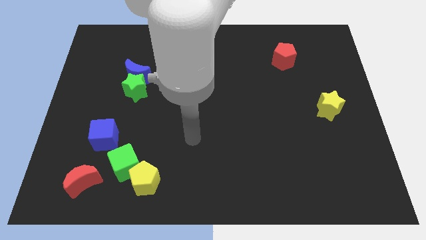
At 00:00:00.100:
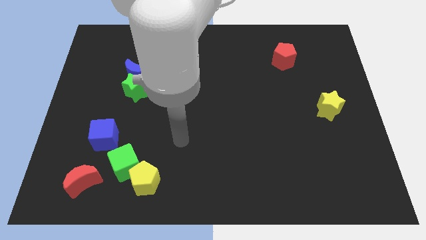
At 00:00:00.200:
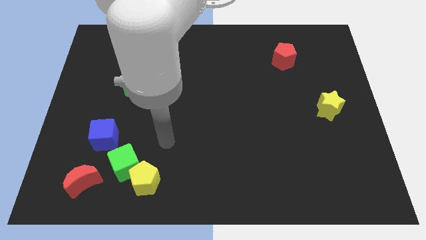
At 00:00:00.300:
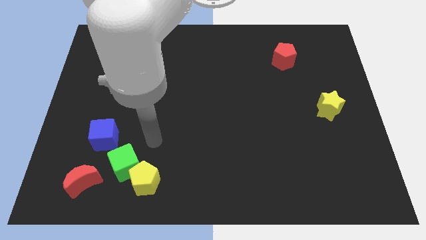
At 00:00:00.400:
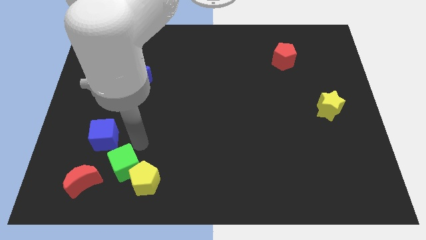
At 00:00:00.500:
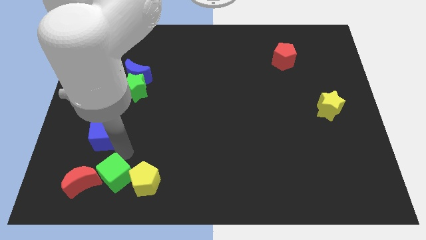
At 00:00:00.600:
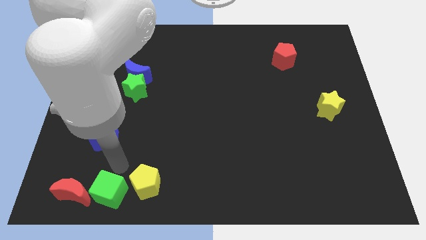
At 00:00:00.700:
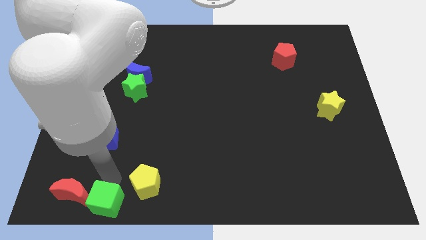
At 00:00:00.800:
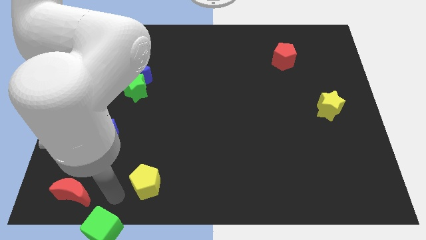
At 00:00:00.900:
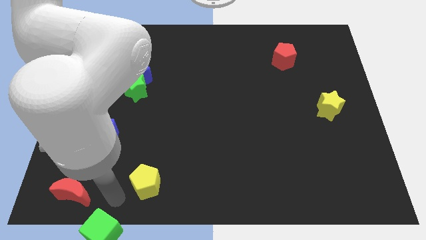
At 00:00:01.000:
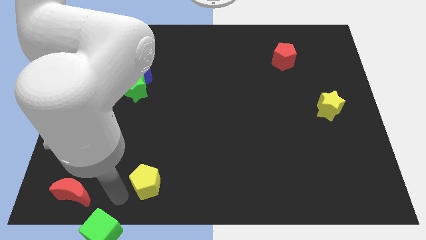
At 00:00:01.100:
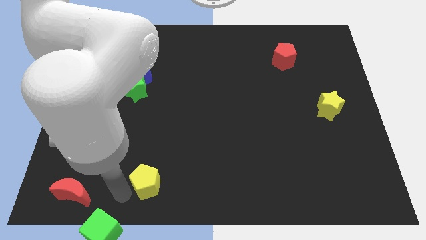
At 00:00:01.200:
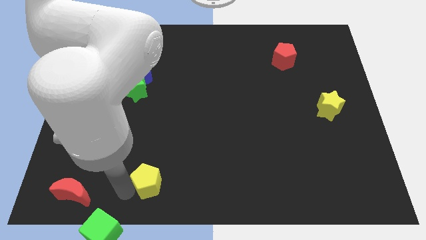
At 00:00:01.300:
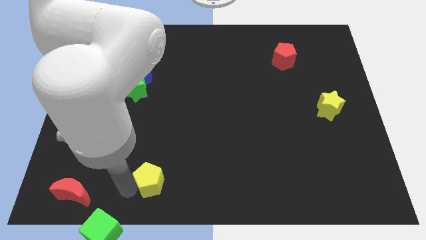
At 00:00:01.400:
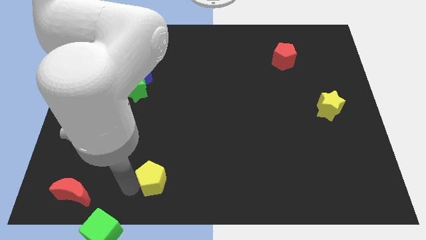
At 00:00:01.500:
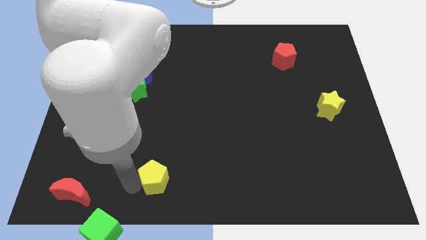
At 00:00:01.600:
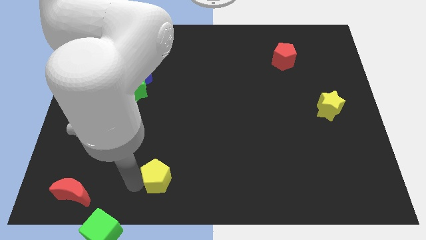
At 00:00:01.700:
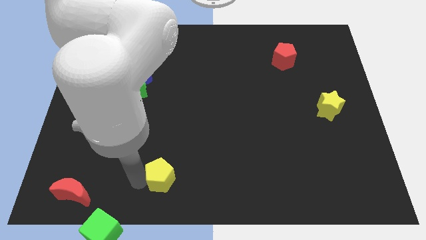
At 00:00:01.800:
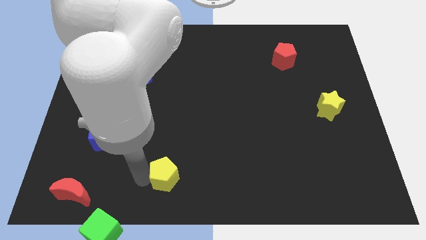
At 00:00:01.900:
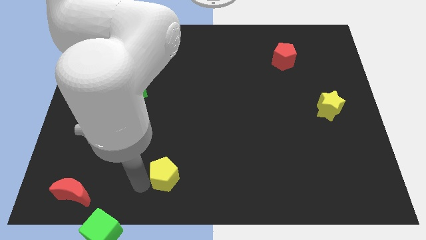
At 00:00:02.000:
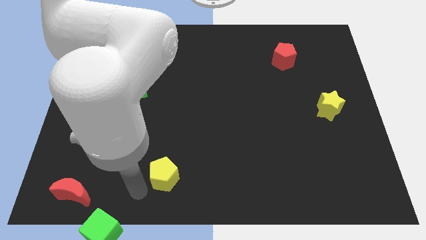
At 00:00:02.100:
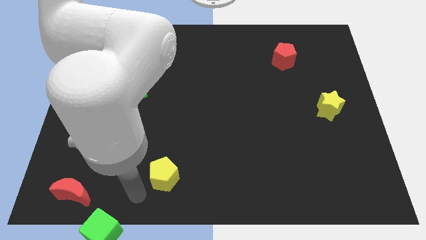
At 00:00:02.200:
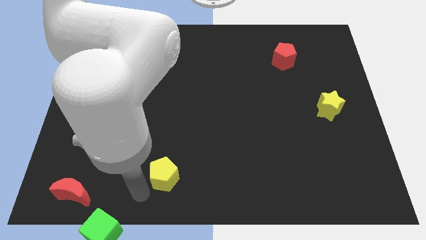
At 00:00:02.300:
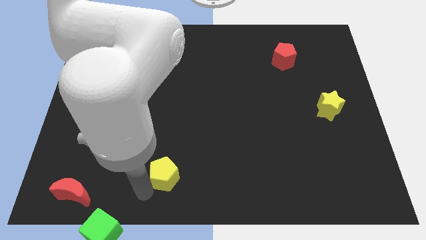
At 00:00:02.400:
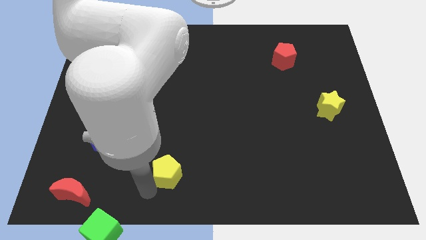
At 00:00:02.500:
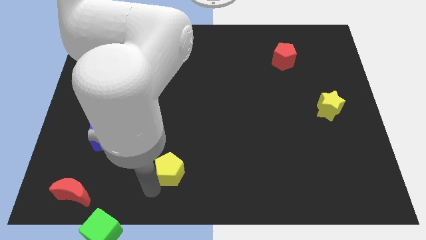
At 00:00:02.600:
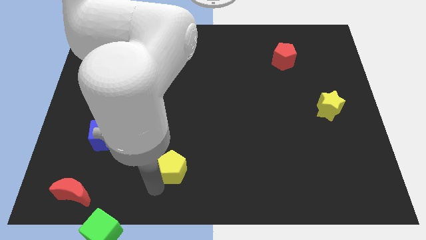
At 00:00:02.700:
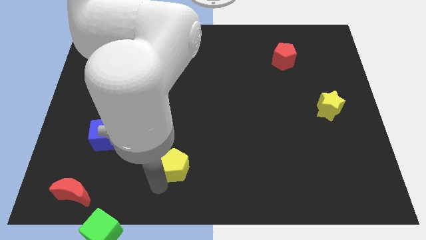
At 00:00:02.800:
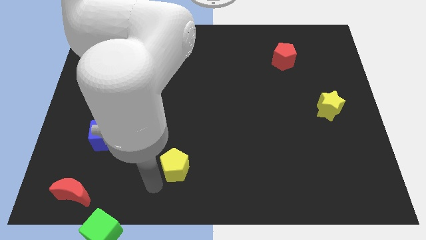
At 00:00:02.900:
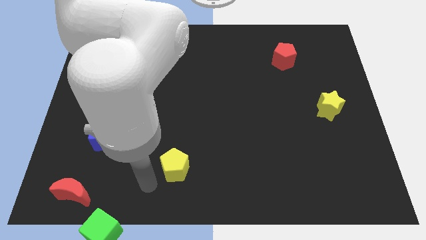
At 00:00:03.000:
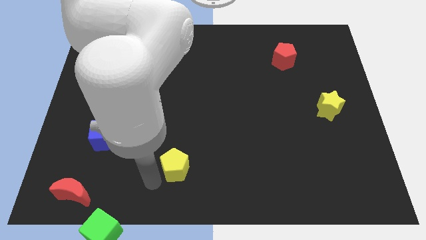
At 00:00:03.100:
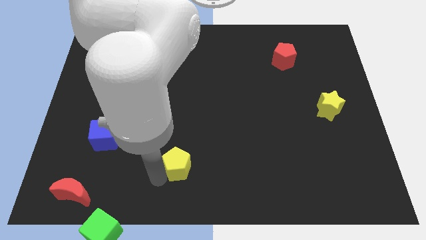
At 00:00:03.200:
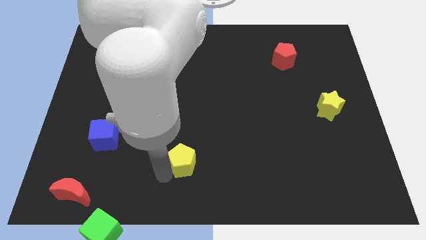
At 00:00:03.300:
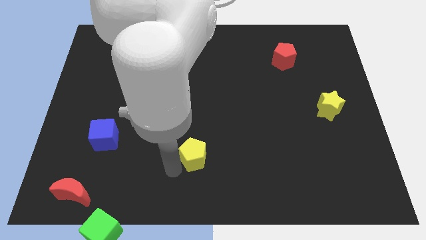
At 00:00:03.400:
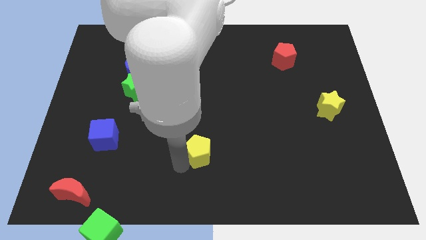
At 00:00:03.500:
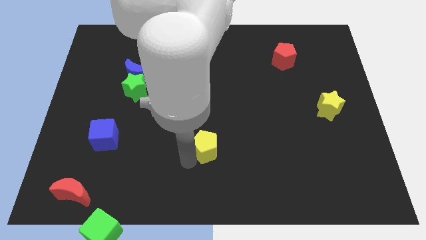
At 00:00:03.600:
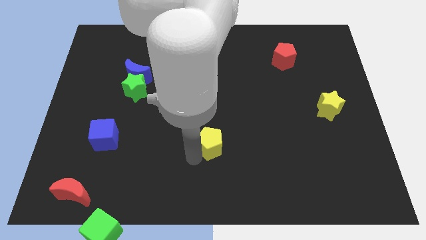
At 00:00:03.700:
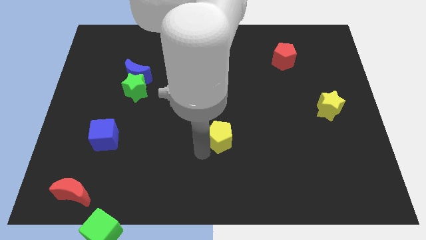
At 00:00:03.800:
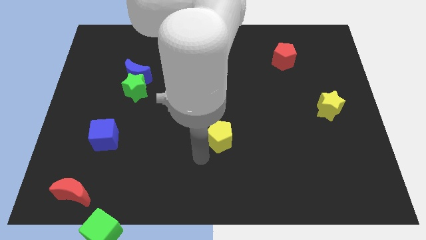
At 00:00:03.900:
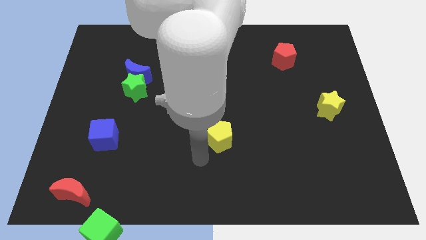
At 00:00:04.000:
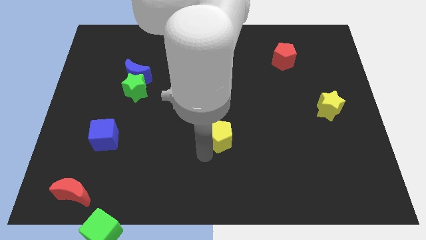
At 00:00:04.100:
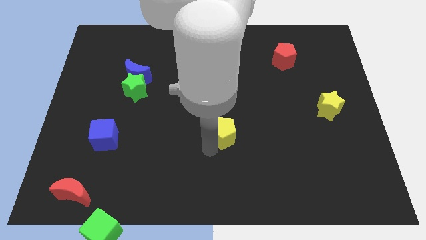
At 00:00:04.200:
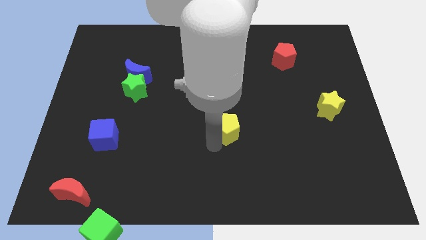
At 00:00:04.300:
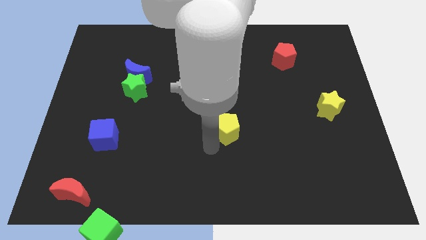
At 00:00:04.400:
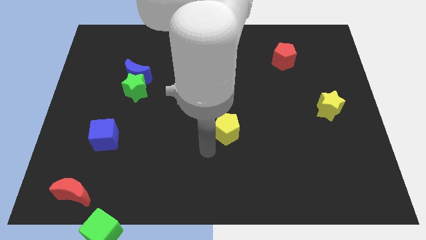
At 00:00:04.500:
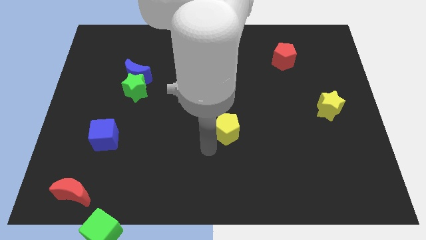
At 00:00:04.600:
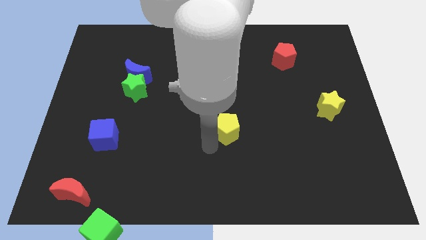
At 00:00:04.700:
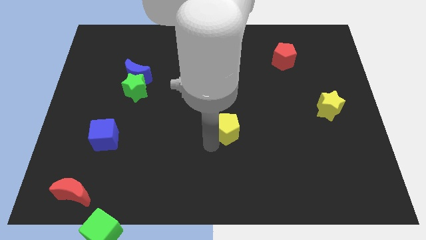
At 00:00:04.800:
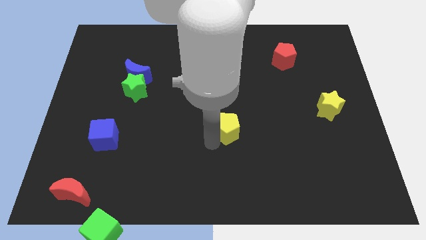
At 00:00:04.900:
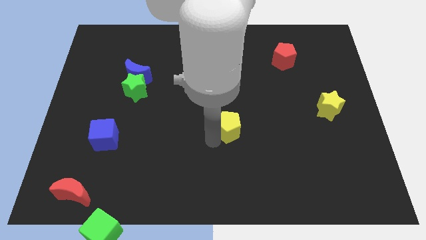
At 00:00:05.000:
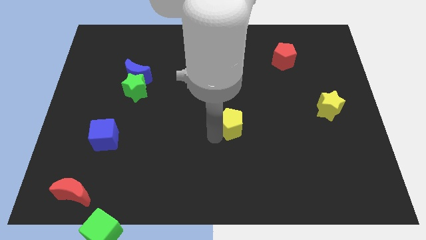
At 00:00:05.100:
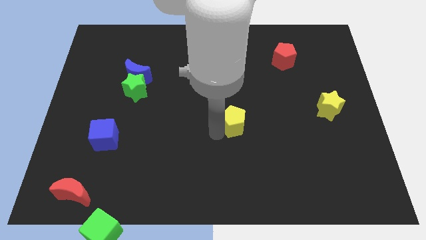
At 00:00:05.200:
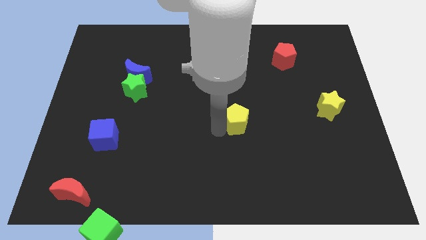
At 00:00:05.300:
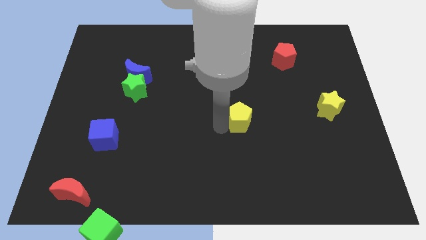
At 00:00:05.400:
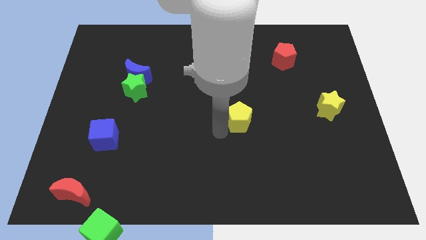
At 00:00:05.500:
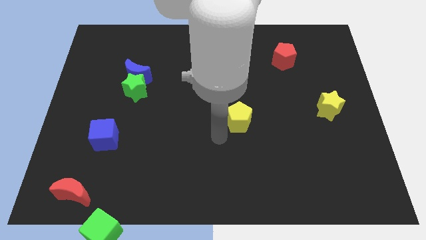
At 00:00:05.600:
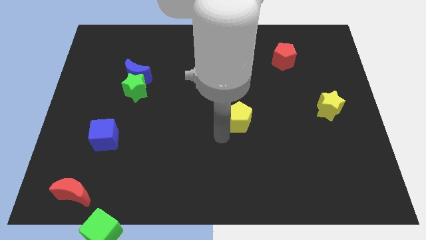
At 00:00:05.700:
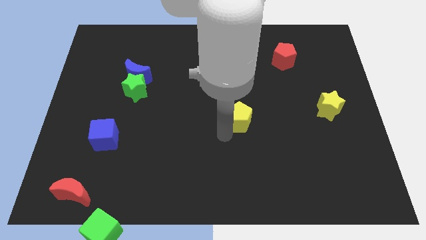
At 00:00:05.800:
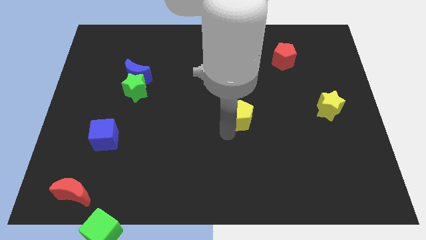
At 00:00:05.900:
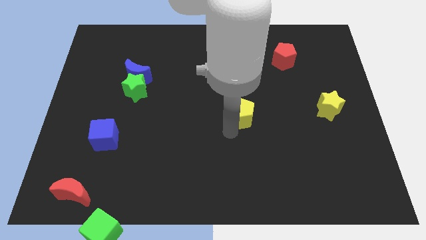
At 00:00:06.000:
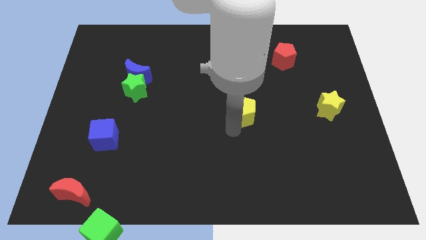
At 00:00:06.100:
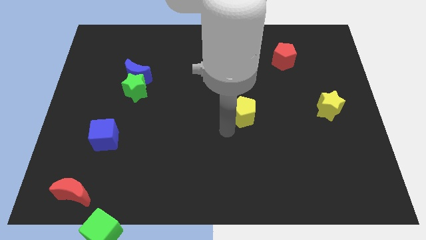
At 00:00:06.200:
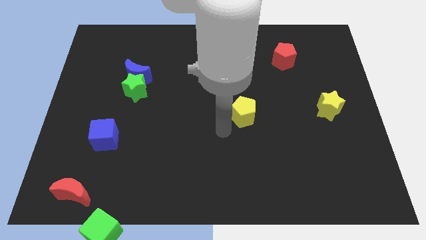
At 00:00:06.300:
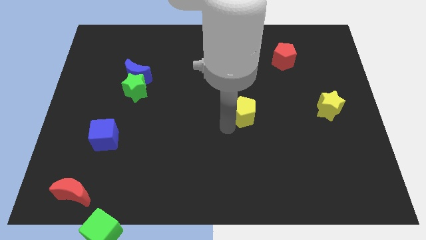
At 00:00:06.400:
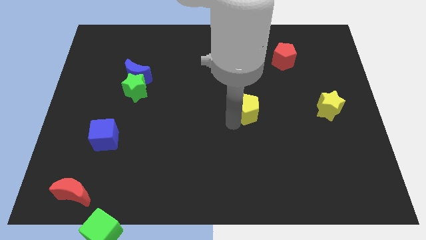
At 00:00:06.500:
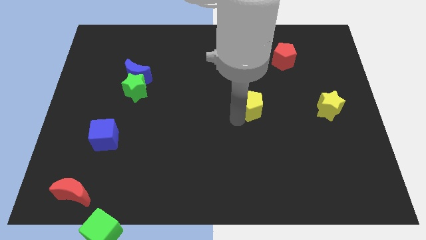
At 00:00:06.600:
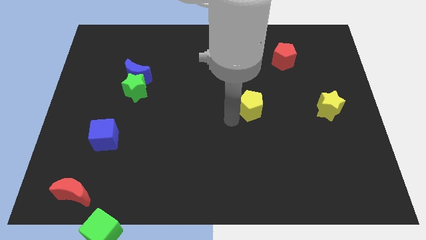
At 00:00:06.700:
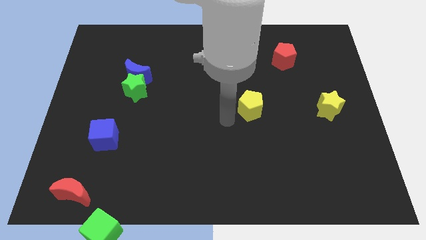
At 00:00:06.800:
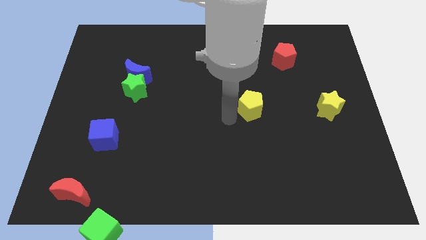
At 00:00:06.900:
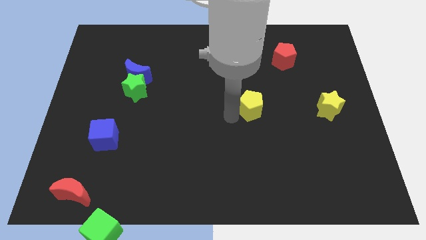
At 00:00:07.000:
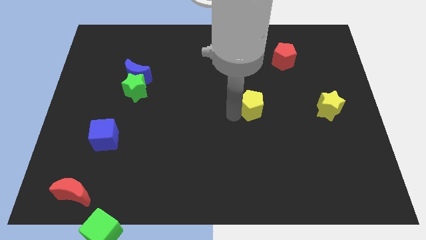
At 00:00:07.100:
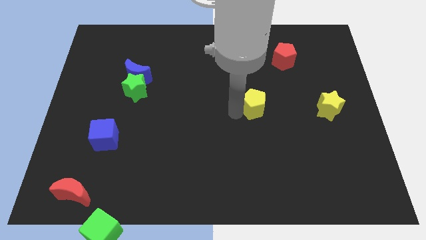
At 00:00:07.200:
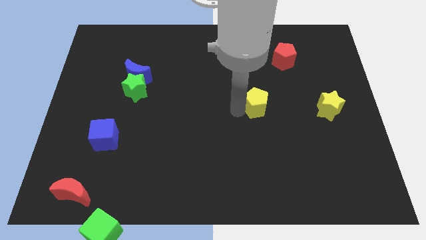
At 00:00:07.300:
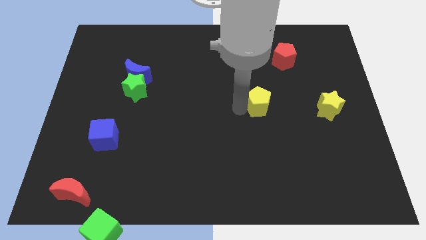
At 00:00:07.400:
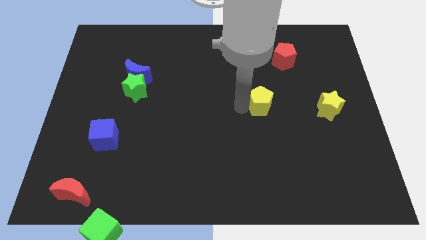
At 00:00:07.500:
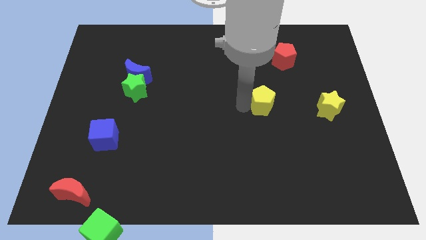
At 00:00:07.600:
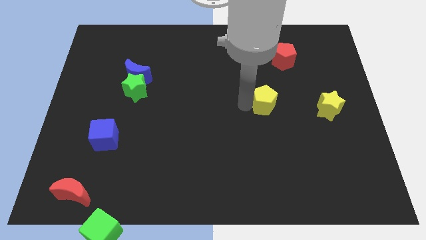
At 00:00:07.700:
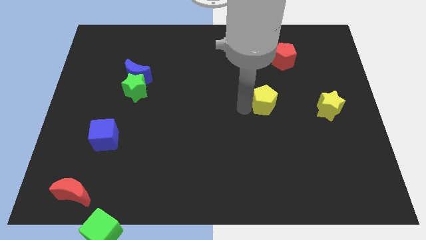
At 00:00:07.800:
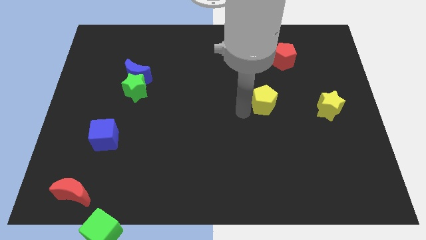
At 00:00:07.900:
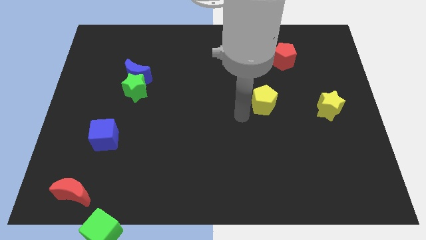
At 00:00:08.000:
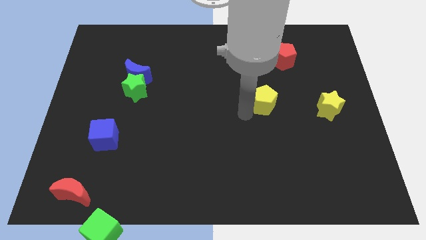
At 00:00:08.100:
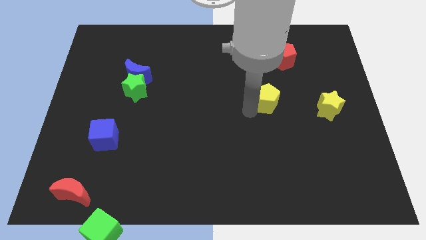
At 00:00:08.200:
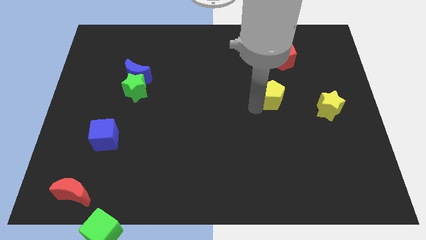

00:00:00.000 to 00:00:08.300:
push the yellow pentagon below the red pentagon
